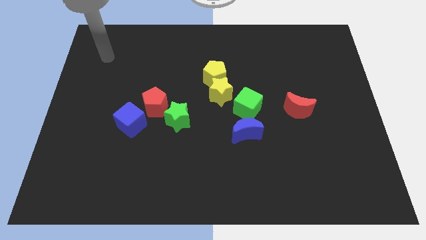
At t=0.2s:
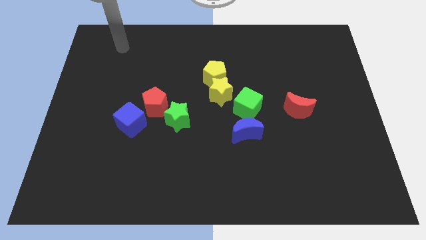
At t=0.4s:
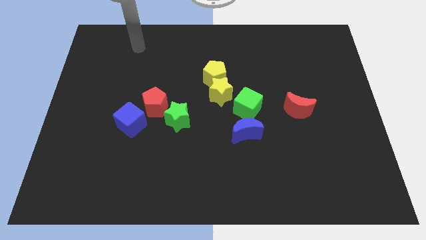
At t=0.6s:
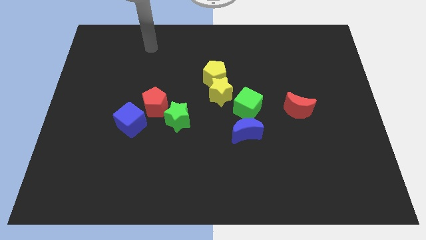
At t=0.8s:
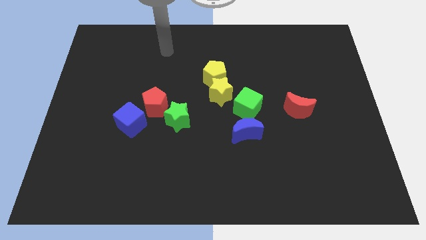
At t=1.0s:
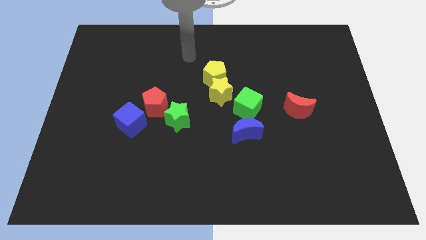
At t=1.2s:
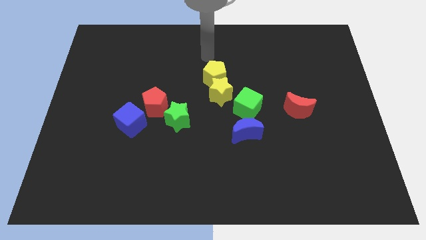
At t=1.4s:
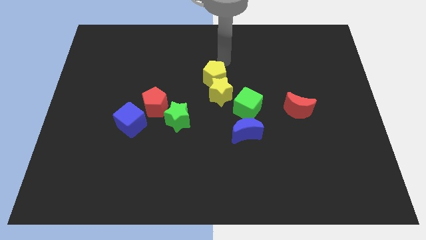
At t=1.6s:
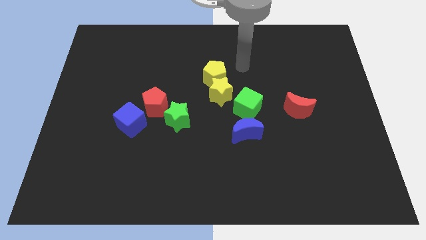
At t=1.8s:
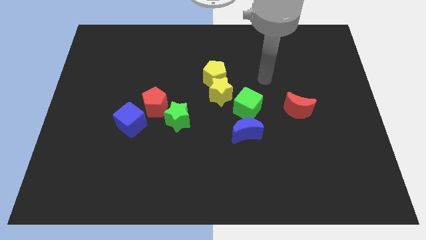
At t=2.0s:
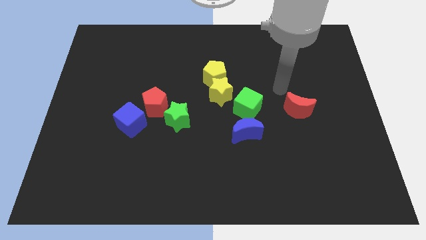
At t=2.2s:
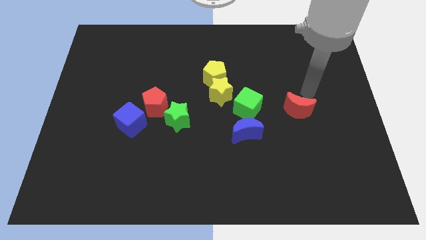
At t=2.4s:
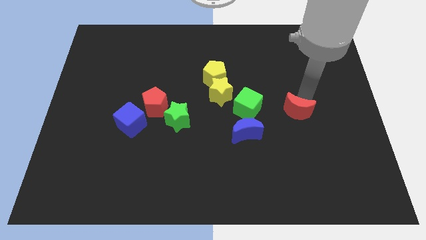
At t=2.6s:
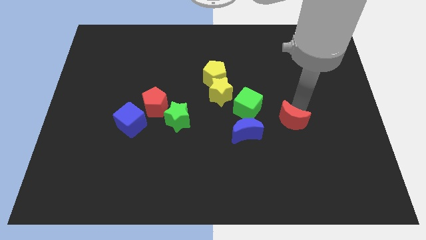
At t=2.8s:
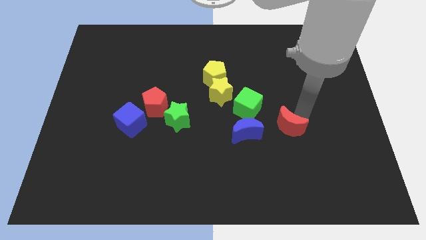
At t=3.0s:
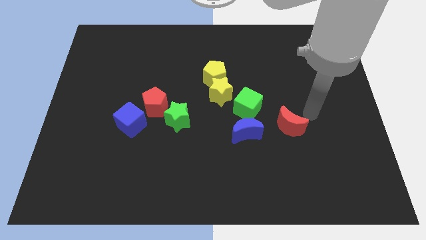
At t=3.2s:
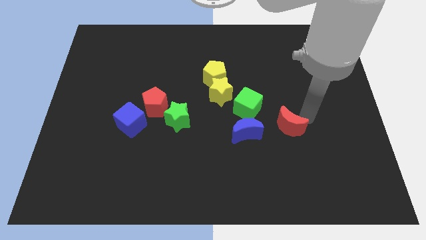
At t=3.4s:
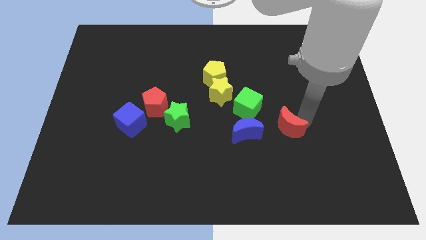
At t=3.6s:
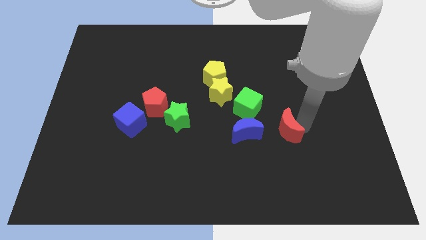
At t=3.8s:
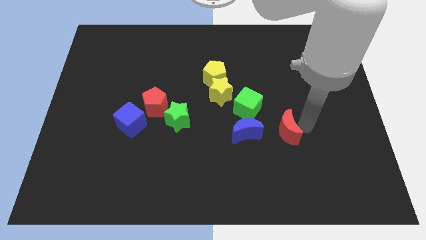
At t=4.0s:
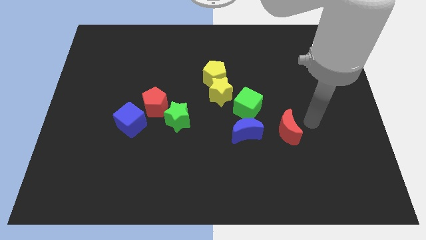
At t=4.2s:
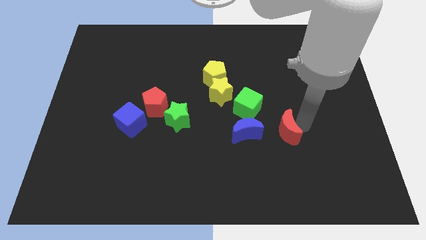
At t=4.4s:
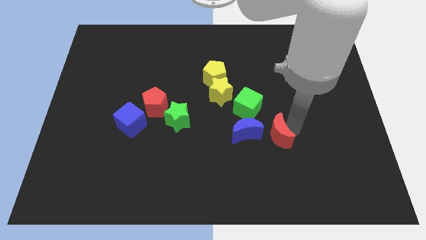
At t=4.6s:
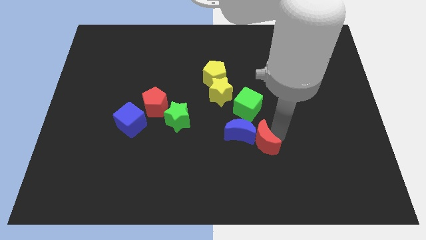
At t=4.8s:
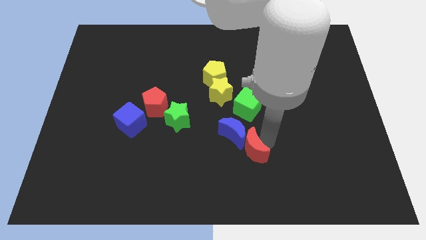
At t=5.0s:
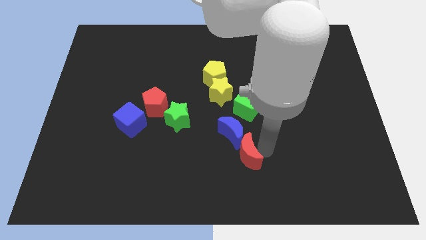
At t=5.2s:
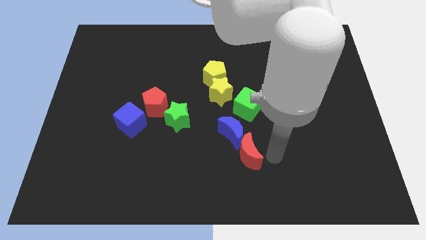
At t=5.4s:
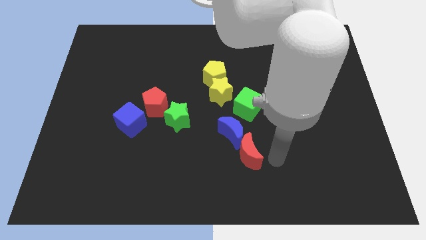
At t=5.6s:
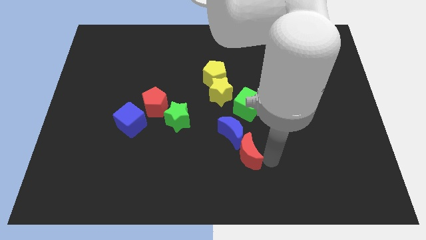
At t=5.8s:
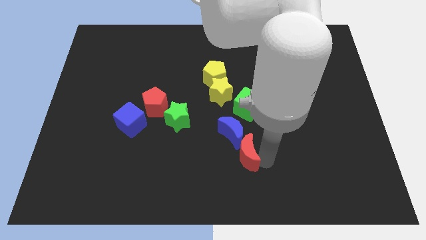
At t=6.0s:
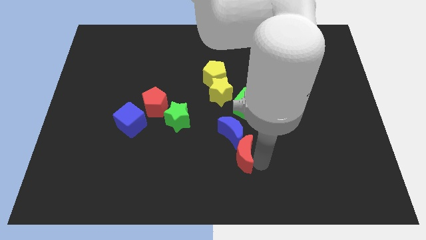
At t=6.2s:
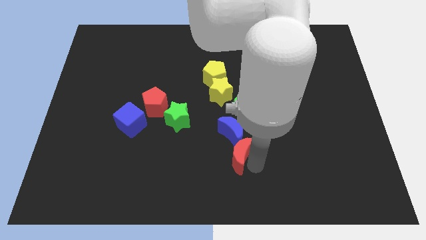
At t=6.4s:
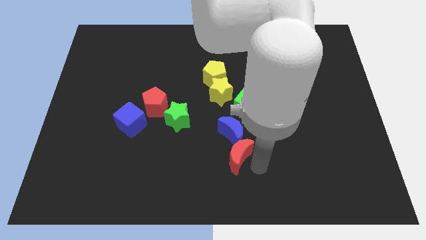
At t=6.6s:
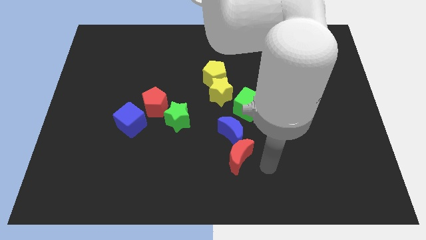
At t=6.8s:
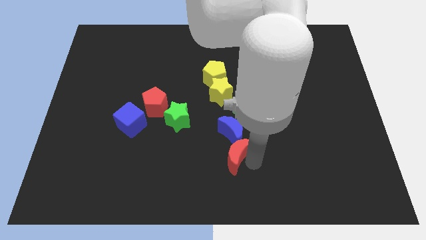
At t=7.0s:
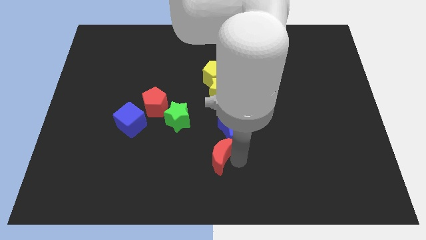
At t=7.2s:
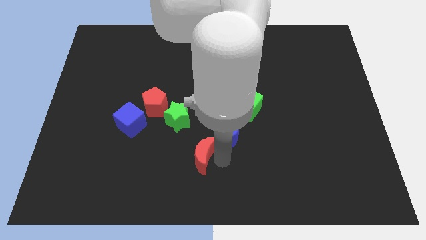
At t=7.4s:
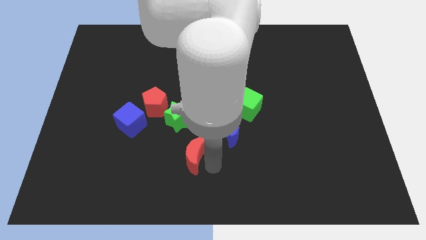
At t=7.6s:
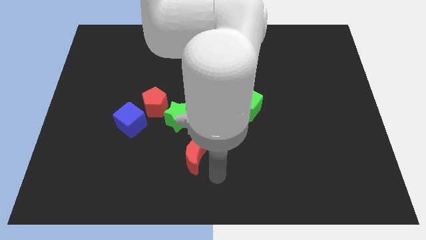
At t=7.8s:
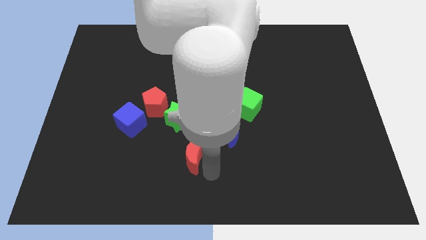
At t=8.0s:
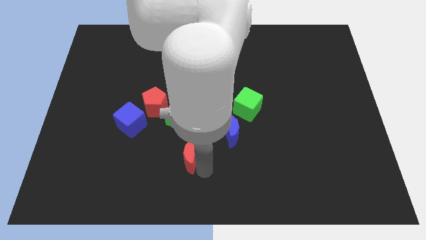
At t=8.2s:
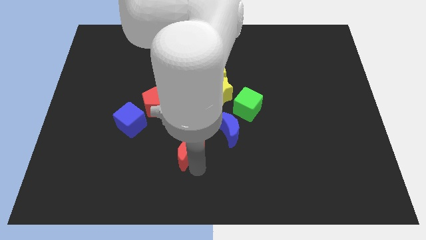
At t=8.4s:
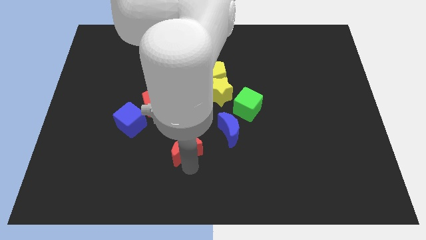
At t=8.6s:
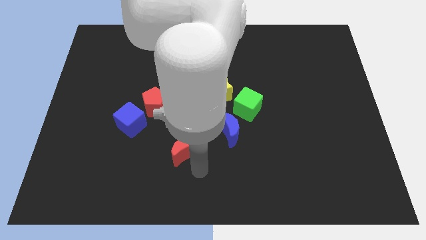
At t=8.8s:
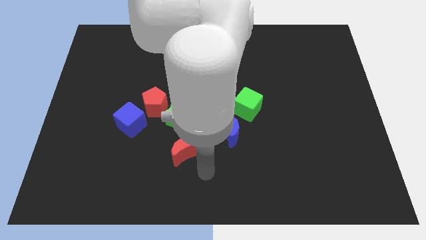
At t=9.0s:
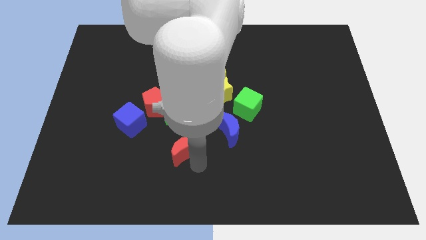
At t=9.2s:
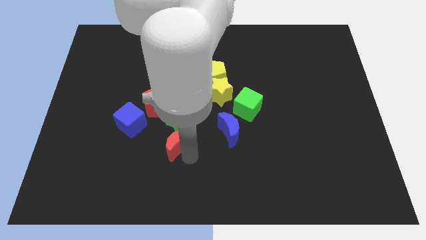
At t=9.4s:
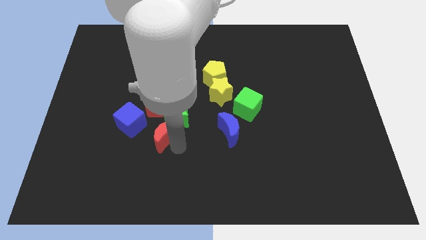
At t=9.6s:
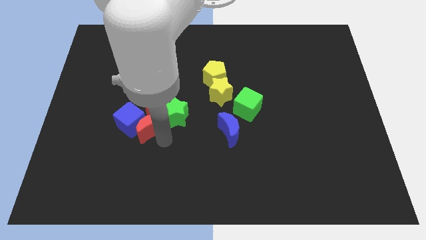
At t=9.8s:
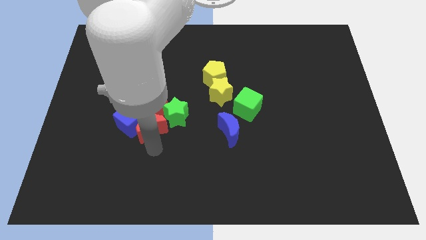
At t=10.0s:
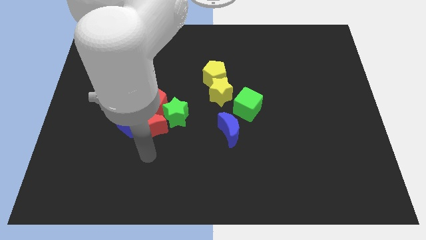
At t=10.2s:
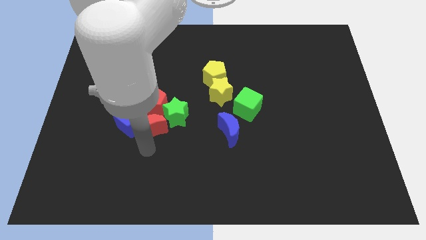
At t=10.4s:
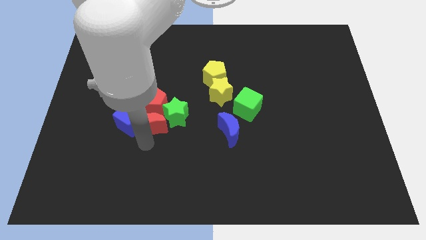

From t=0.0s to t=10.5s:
slide the red moon close to the red pentagon

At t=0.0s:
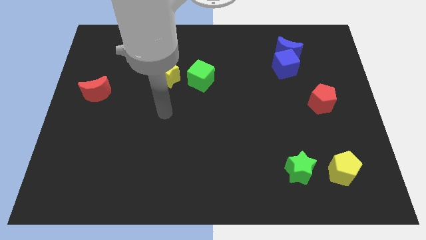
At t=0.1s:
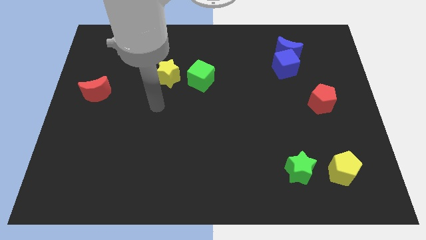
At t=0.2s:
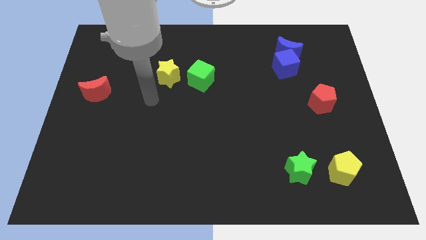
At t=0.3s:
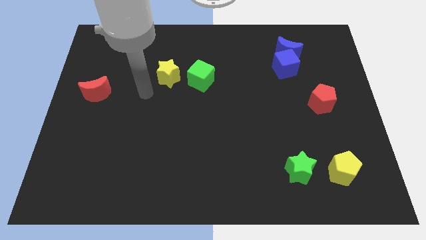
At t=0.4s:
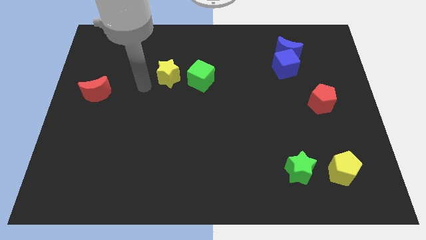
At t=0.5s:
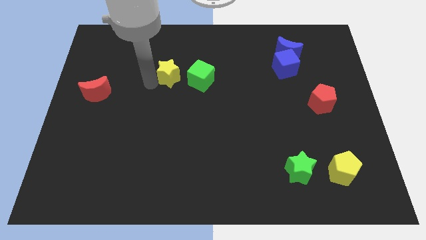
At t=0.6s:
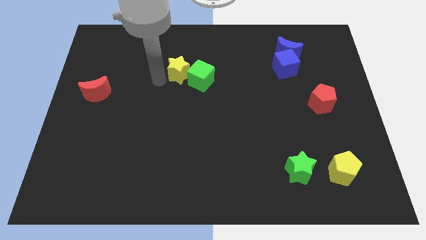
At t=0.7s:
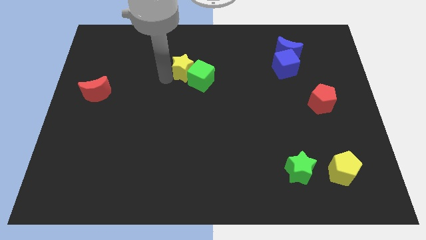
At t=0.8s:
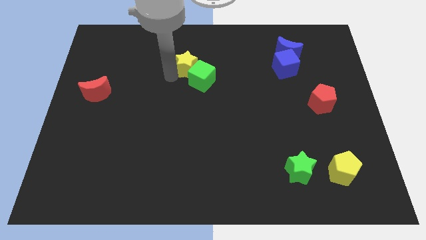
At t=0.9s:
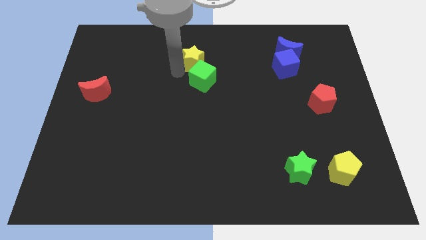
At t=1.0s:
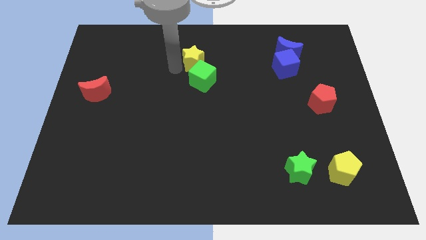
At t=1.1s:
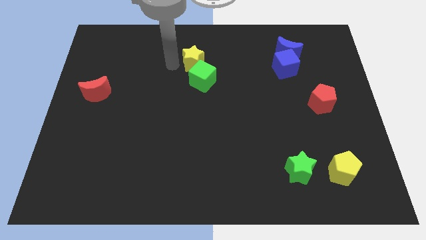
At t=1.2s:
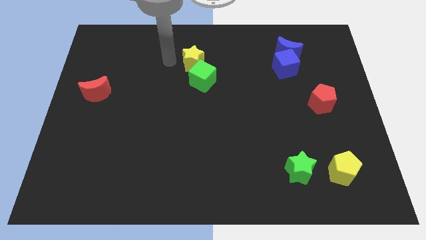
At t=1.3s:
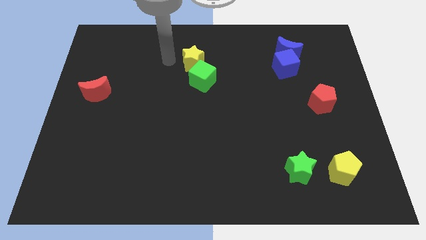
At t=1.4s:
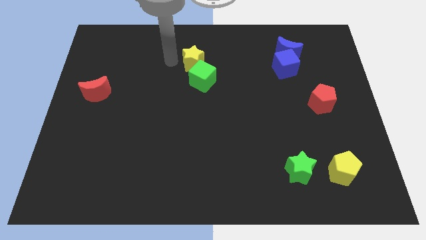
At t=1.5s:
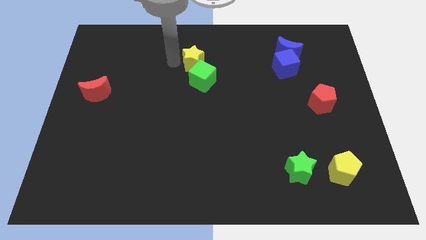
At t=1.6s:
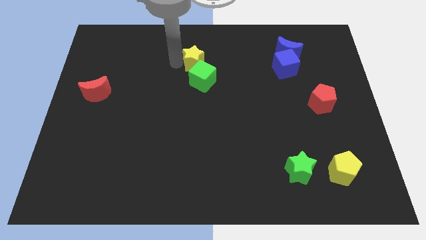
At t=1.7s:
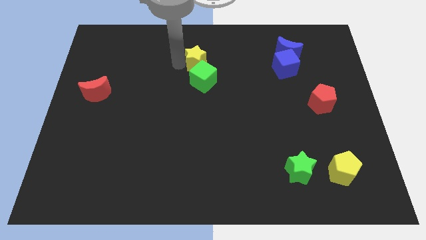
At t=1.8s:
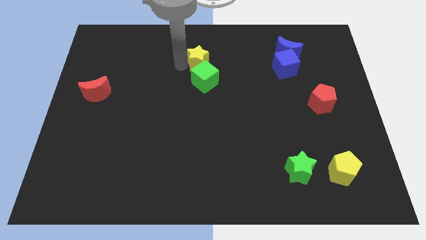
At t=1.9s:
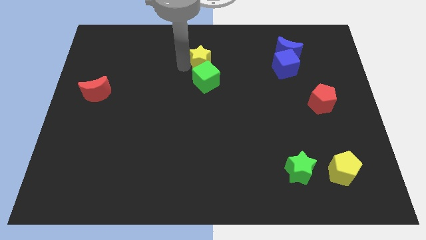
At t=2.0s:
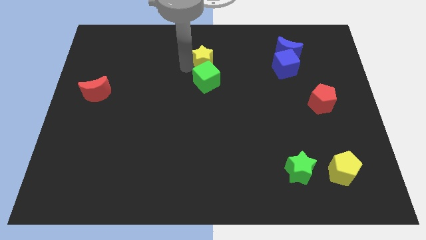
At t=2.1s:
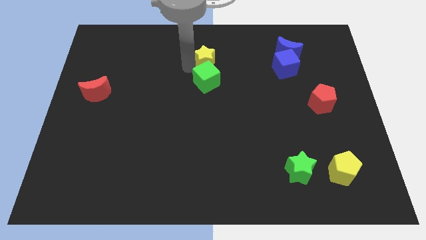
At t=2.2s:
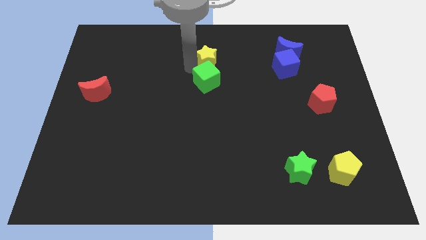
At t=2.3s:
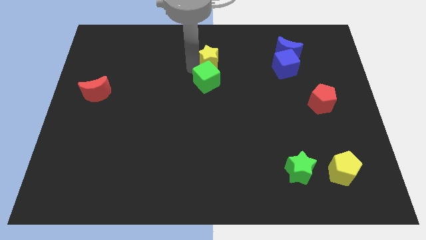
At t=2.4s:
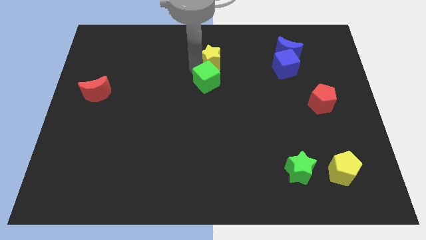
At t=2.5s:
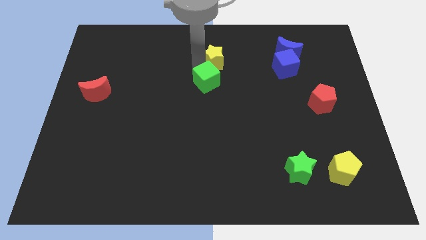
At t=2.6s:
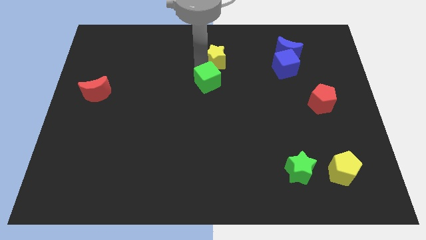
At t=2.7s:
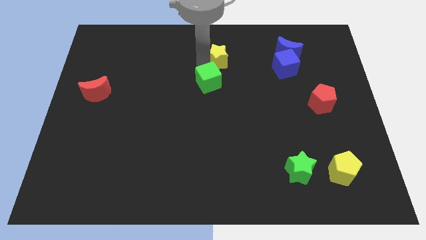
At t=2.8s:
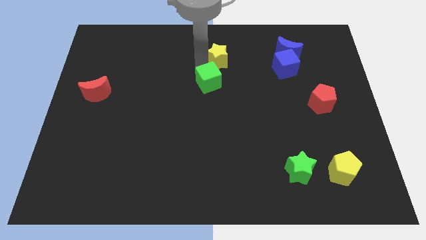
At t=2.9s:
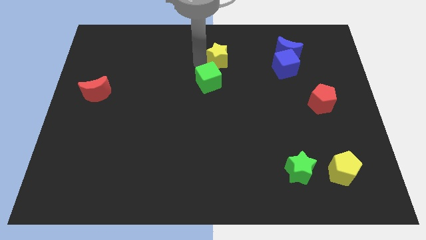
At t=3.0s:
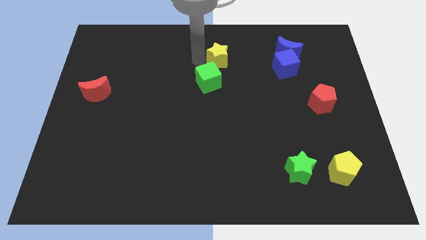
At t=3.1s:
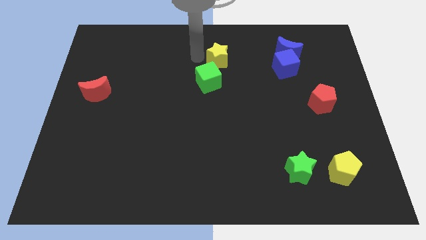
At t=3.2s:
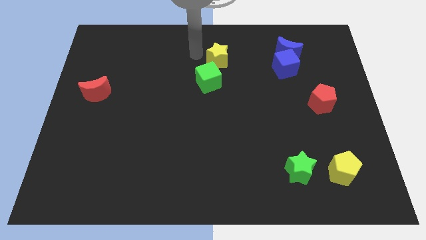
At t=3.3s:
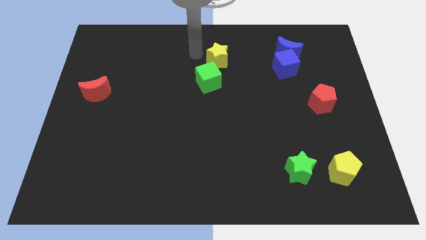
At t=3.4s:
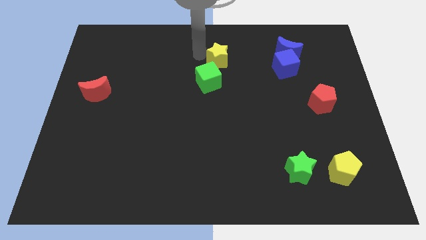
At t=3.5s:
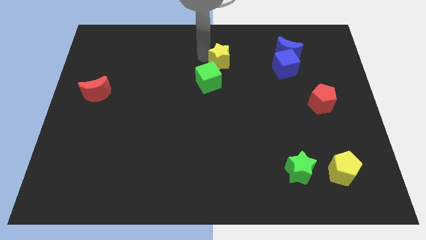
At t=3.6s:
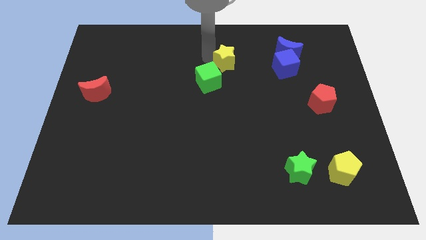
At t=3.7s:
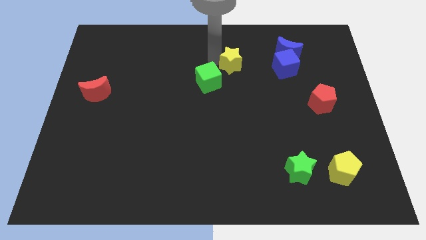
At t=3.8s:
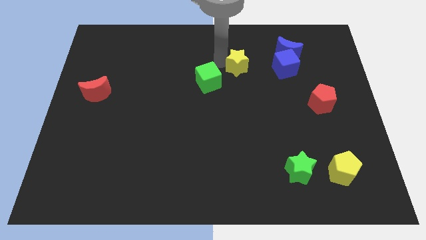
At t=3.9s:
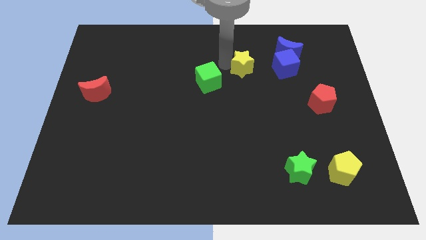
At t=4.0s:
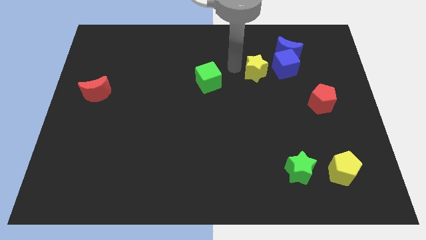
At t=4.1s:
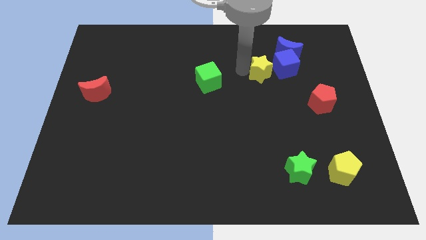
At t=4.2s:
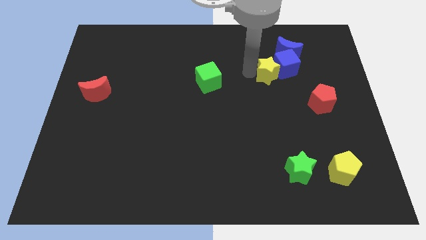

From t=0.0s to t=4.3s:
move the yellow star towards the blue cube
